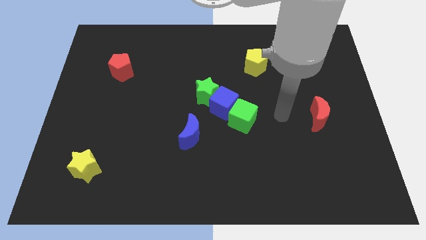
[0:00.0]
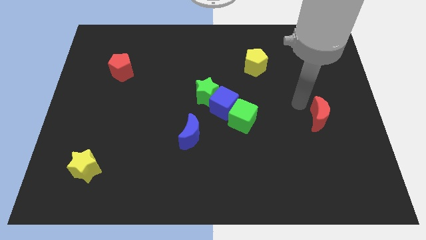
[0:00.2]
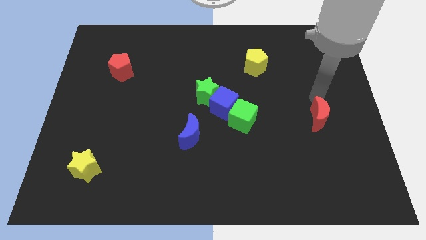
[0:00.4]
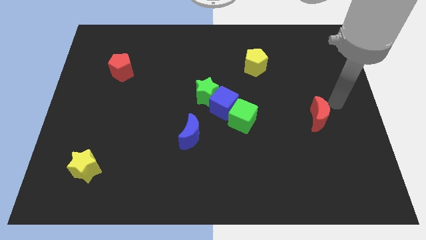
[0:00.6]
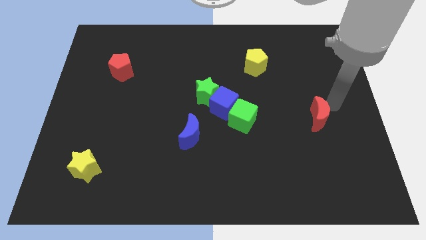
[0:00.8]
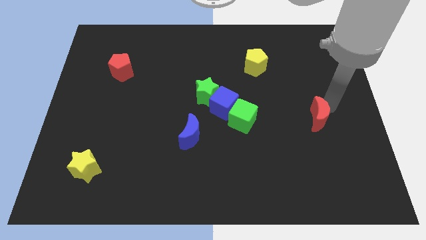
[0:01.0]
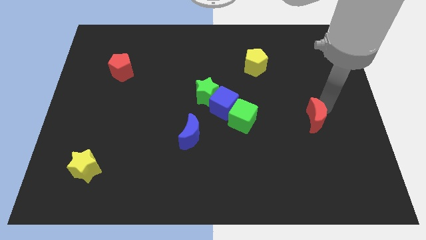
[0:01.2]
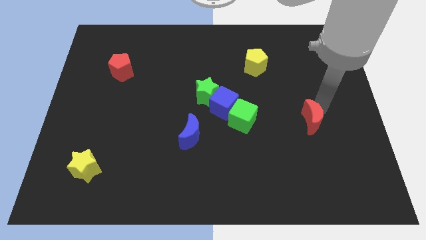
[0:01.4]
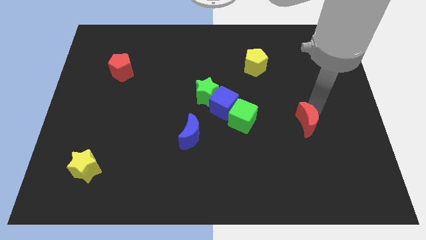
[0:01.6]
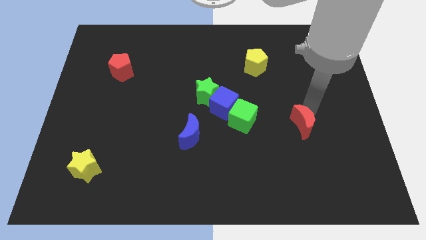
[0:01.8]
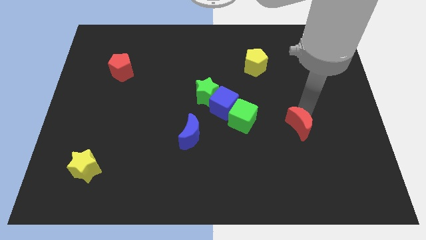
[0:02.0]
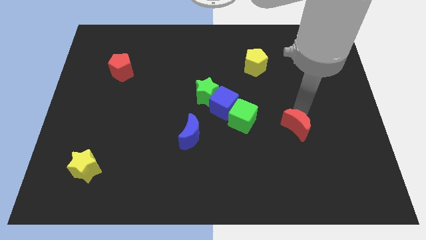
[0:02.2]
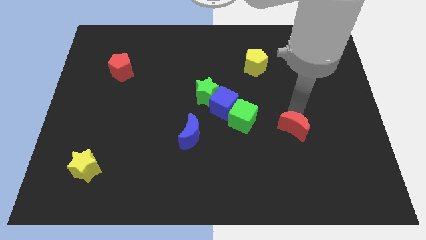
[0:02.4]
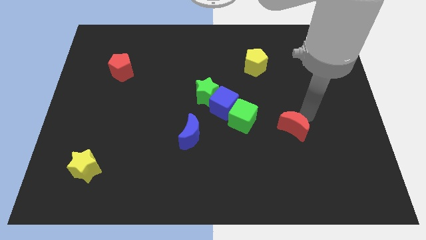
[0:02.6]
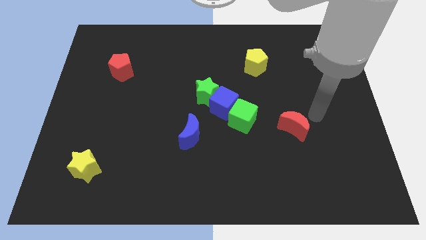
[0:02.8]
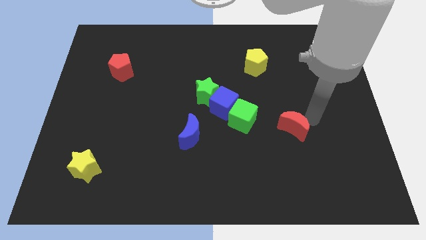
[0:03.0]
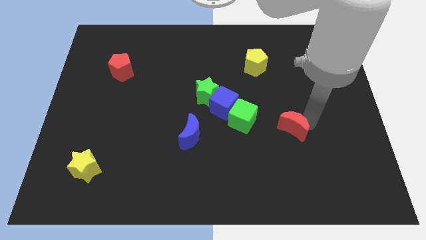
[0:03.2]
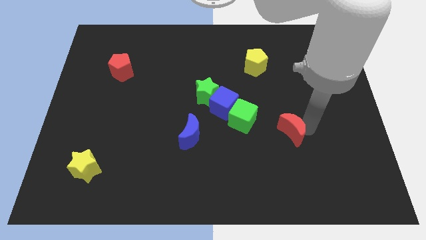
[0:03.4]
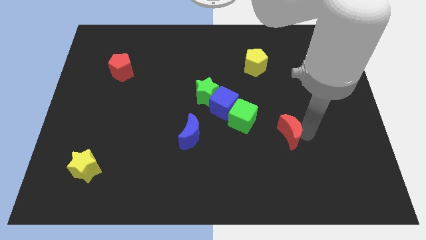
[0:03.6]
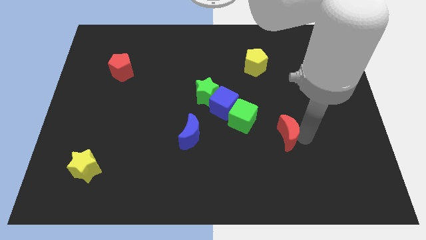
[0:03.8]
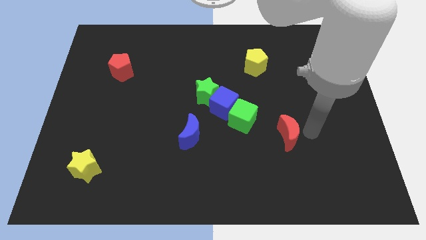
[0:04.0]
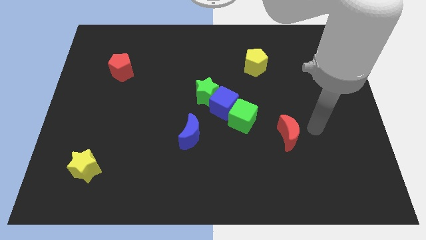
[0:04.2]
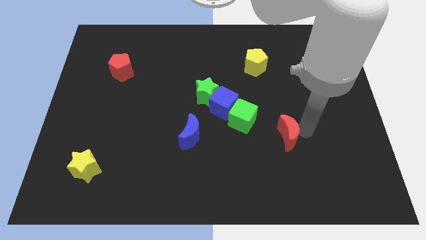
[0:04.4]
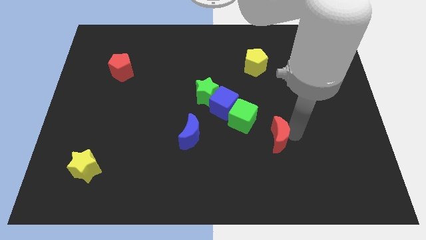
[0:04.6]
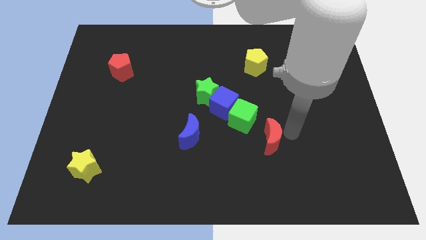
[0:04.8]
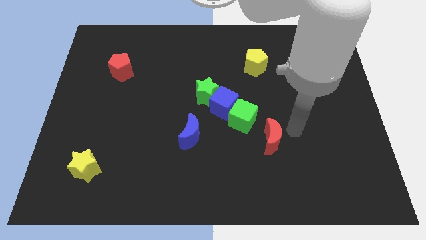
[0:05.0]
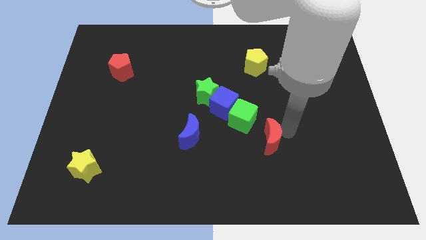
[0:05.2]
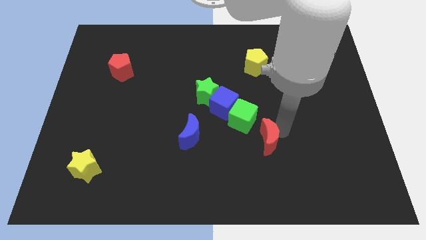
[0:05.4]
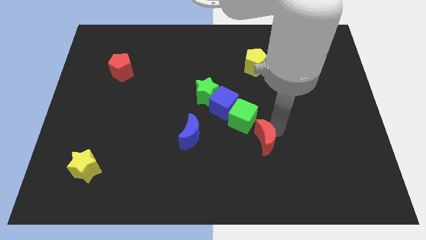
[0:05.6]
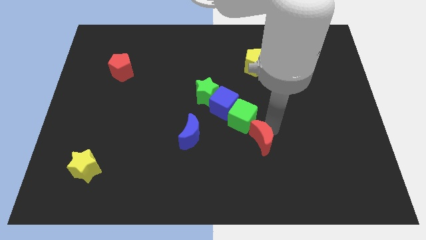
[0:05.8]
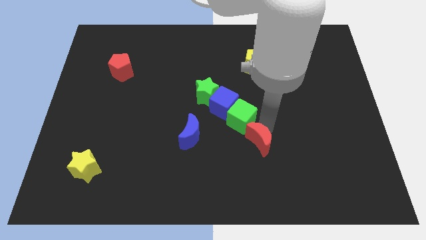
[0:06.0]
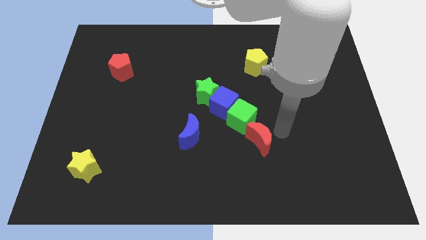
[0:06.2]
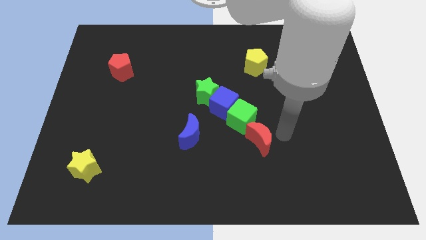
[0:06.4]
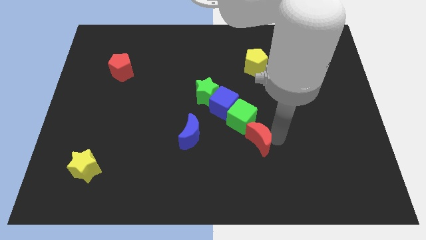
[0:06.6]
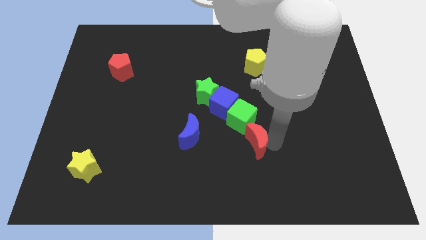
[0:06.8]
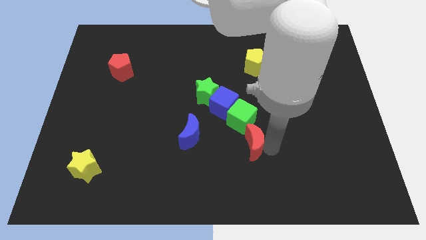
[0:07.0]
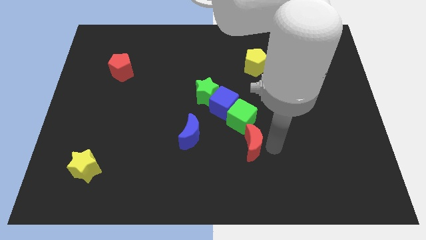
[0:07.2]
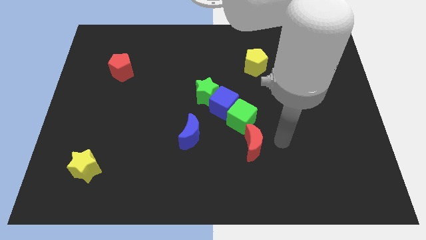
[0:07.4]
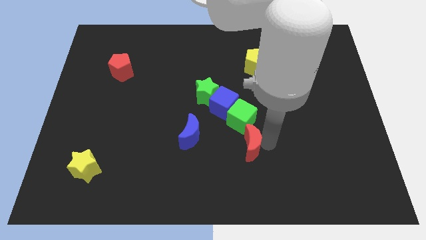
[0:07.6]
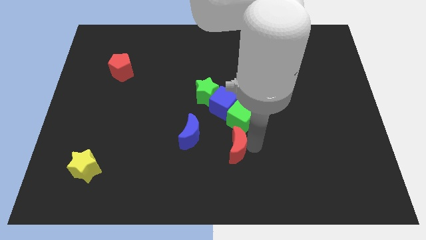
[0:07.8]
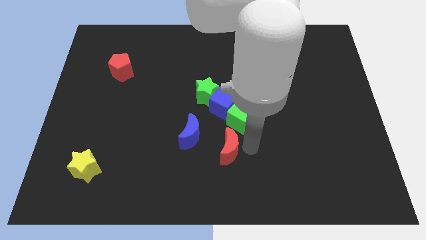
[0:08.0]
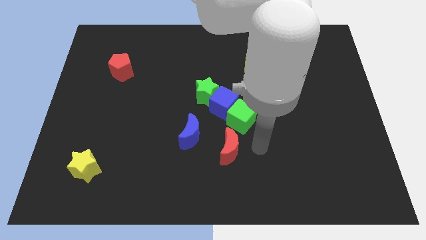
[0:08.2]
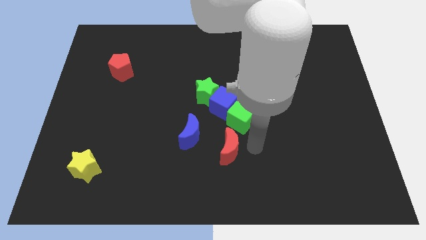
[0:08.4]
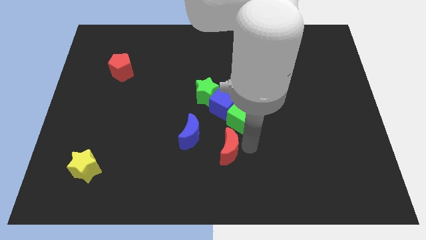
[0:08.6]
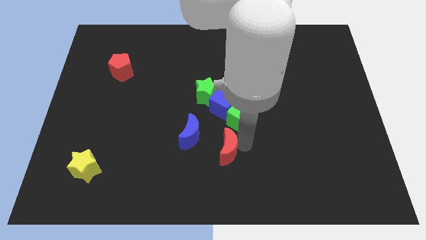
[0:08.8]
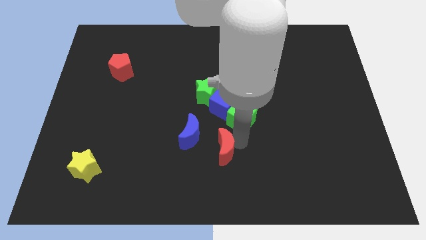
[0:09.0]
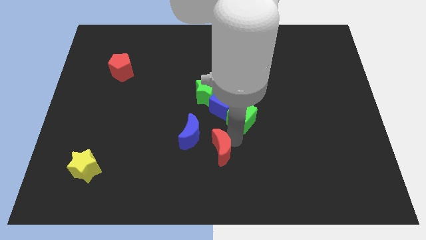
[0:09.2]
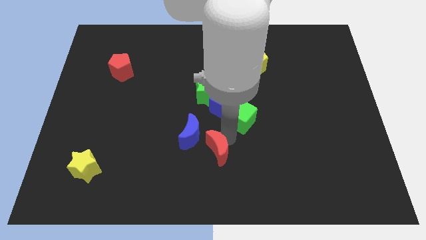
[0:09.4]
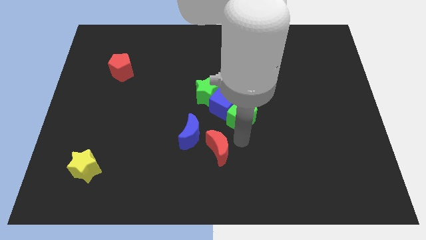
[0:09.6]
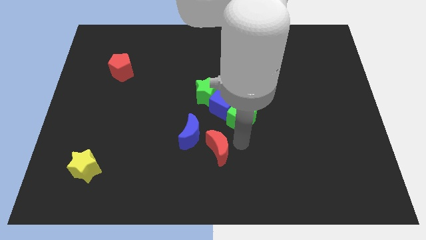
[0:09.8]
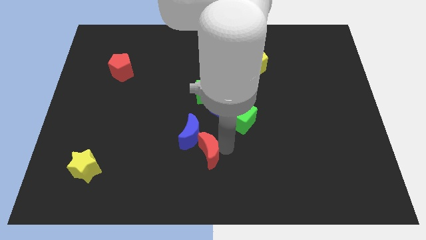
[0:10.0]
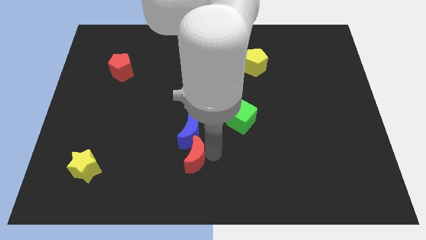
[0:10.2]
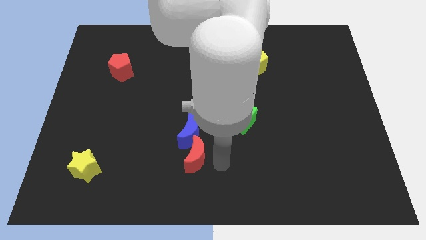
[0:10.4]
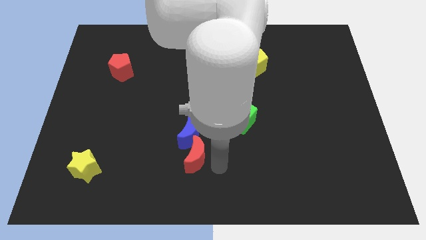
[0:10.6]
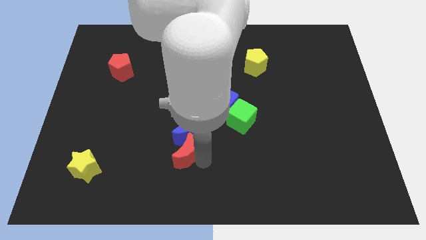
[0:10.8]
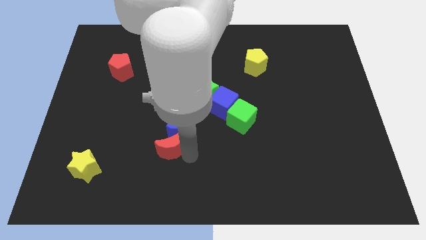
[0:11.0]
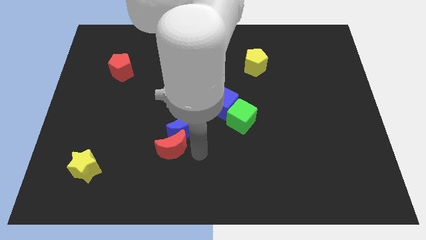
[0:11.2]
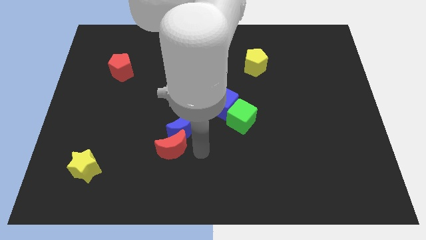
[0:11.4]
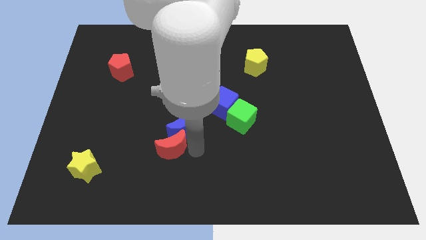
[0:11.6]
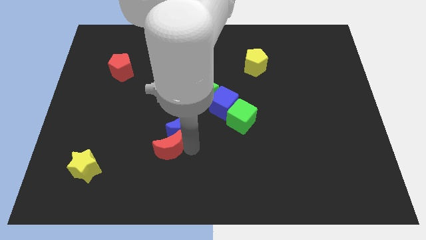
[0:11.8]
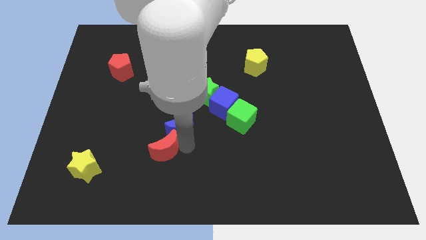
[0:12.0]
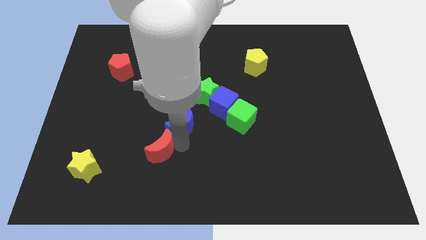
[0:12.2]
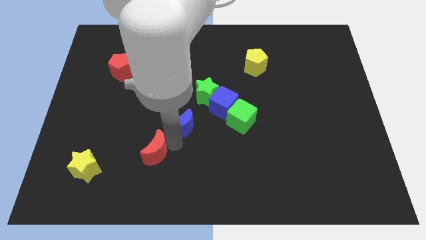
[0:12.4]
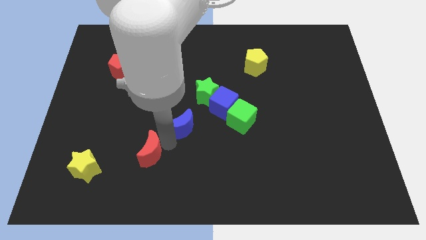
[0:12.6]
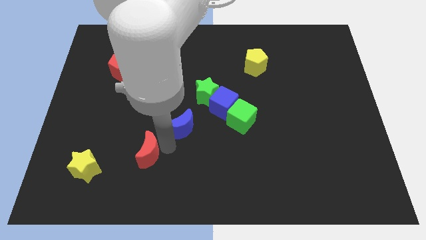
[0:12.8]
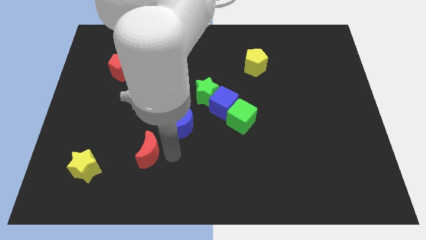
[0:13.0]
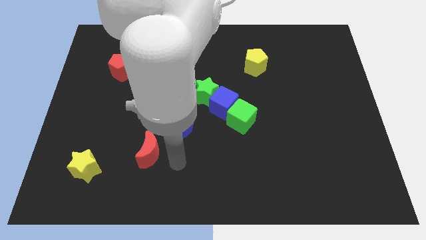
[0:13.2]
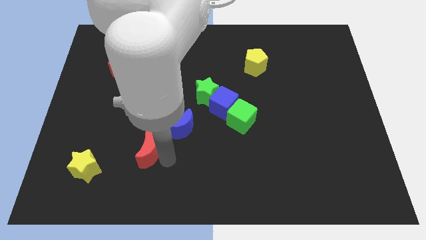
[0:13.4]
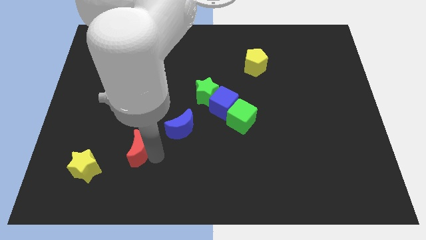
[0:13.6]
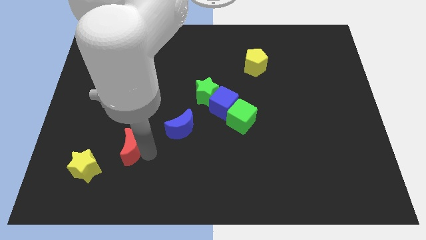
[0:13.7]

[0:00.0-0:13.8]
move the red moon to the top right of the yellow star
